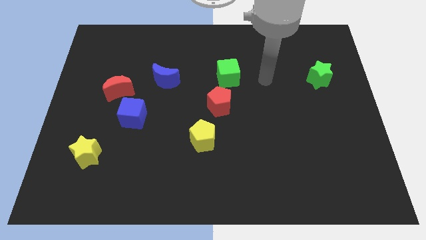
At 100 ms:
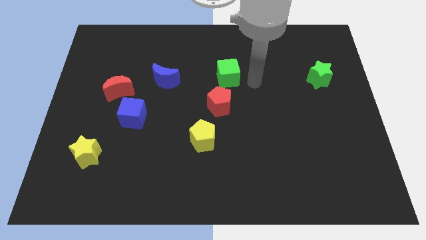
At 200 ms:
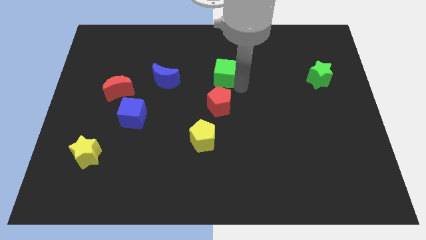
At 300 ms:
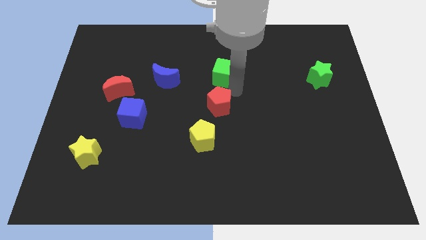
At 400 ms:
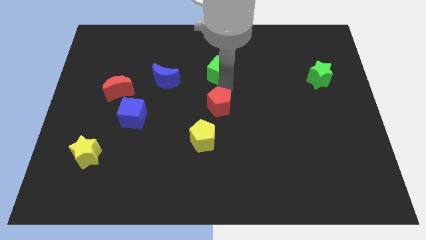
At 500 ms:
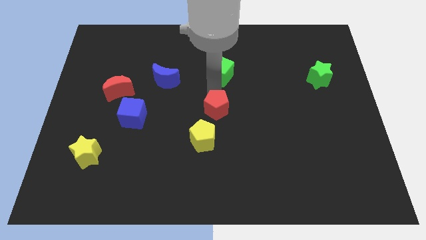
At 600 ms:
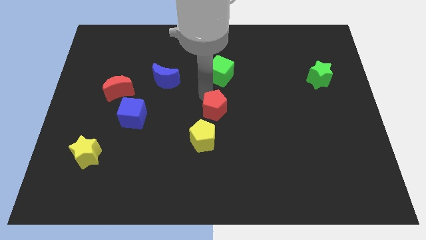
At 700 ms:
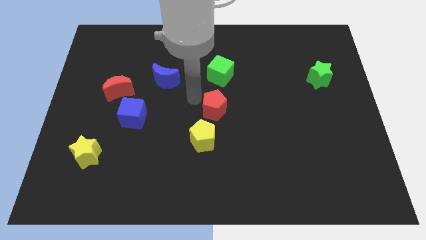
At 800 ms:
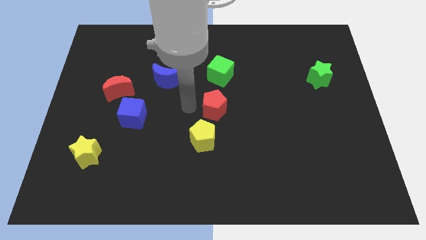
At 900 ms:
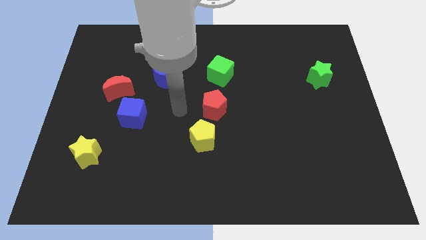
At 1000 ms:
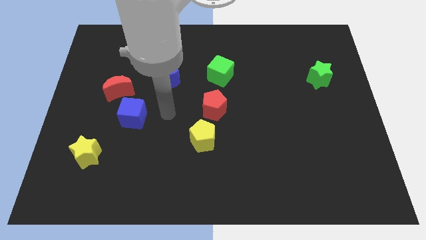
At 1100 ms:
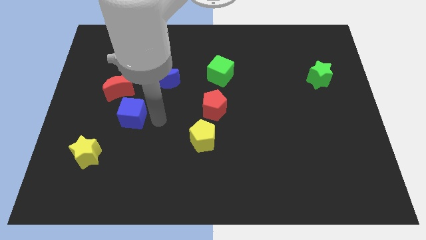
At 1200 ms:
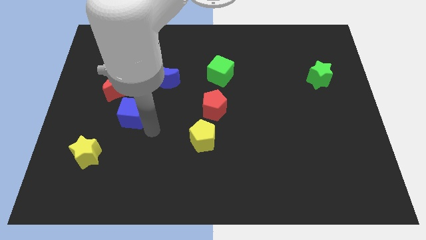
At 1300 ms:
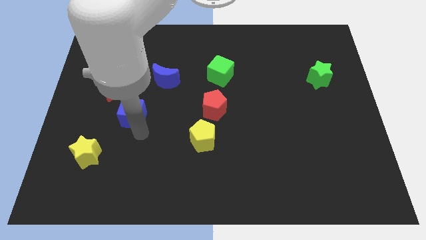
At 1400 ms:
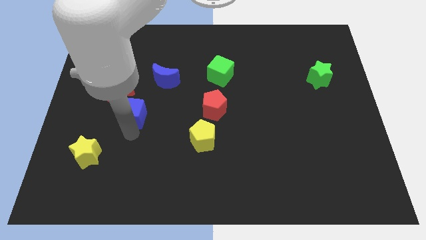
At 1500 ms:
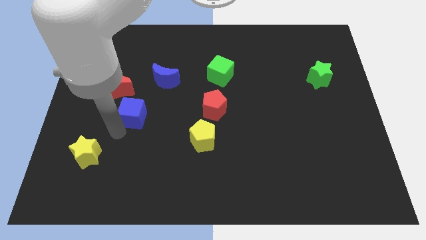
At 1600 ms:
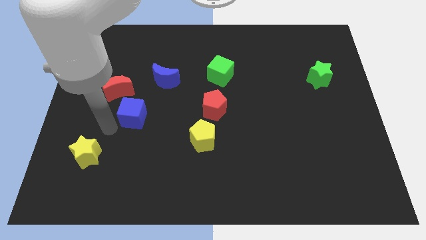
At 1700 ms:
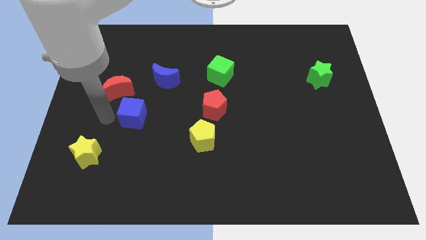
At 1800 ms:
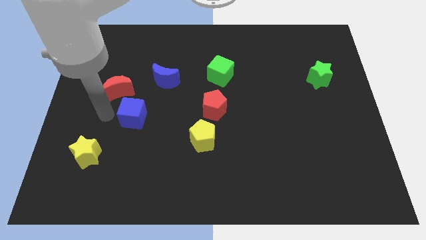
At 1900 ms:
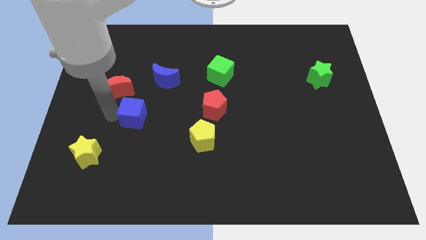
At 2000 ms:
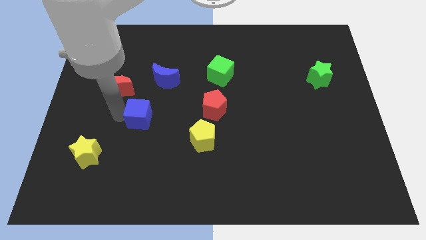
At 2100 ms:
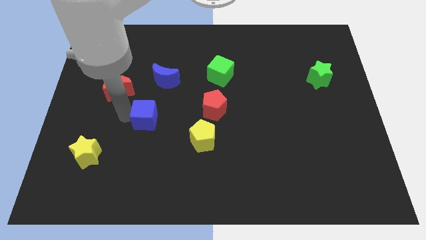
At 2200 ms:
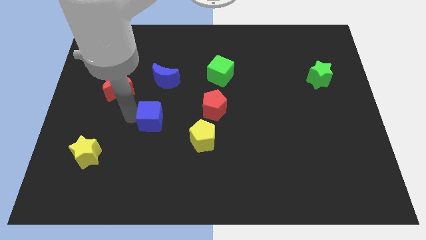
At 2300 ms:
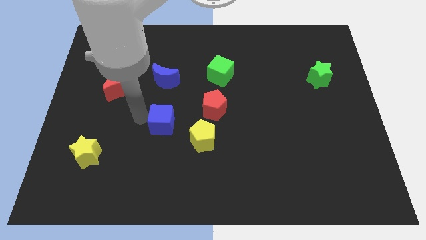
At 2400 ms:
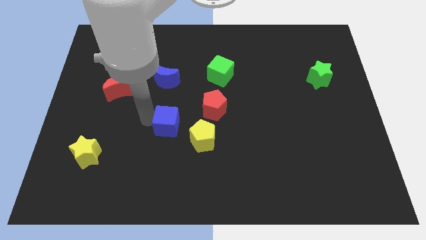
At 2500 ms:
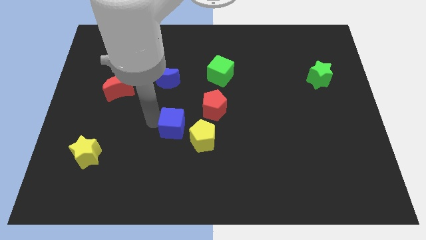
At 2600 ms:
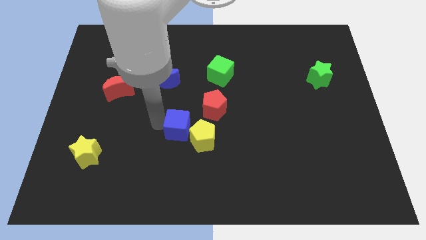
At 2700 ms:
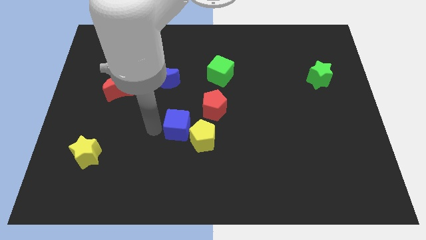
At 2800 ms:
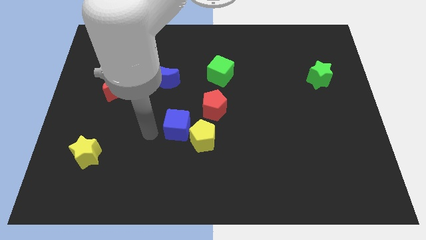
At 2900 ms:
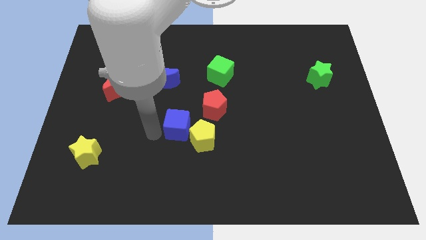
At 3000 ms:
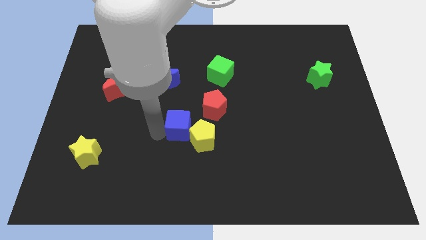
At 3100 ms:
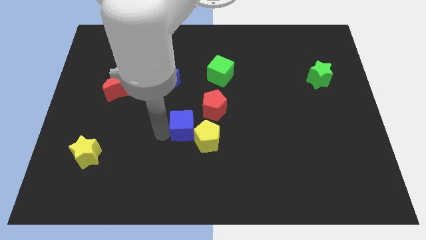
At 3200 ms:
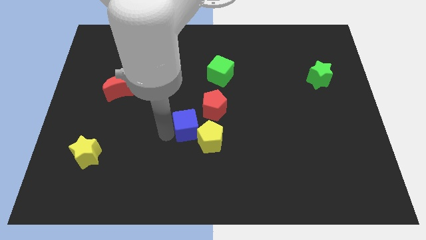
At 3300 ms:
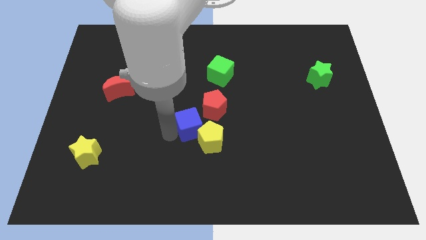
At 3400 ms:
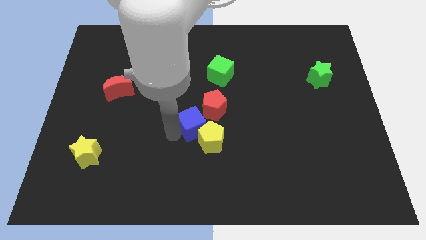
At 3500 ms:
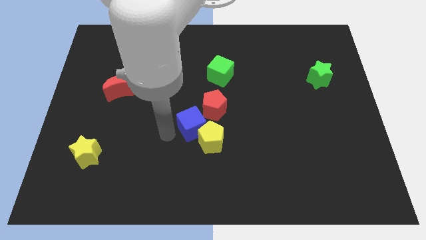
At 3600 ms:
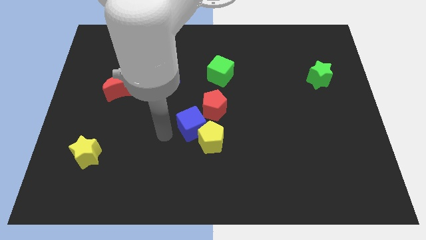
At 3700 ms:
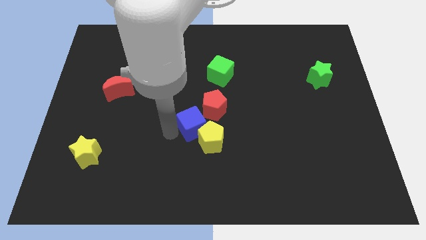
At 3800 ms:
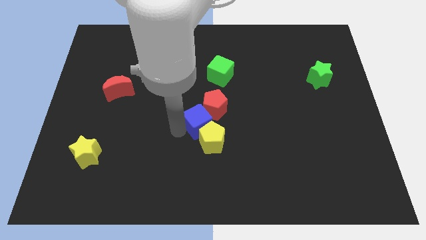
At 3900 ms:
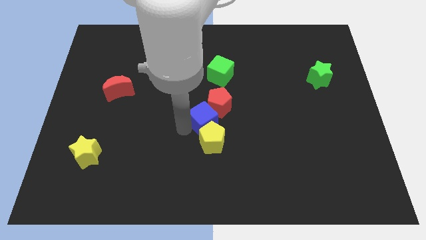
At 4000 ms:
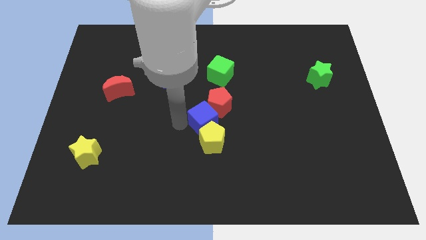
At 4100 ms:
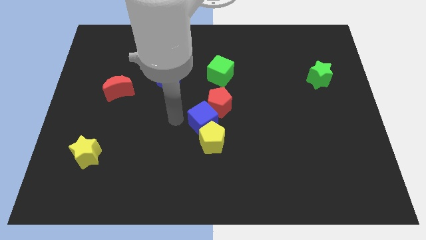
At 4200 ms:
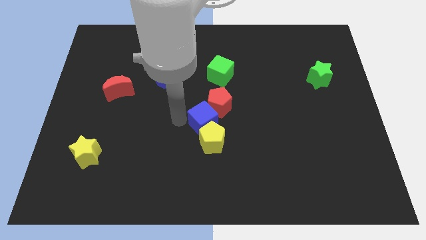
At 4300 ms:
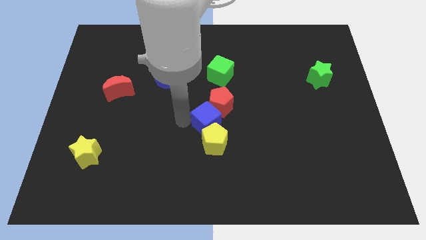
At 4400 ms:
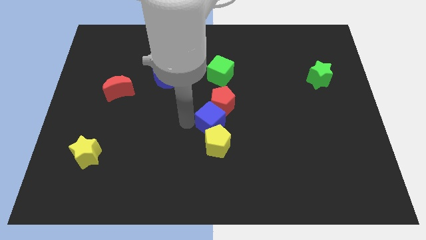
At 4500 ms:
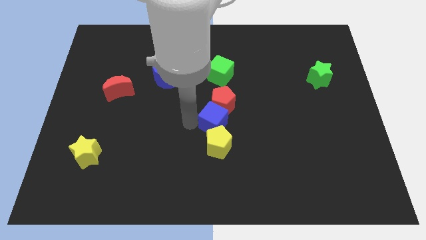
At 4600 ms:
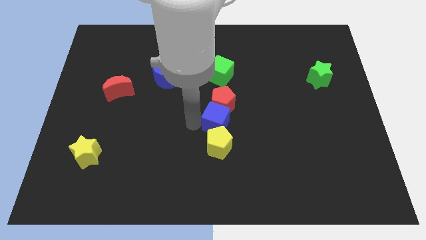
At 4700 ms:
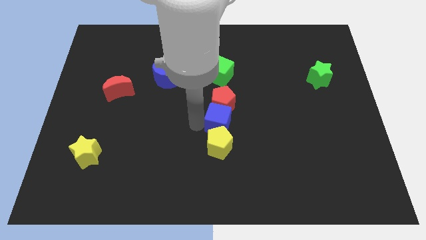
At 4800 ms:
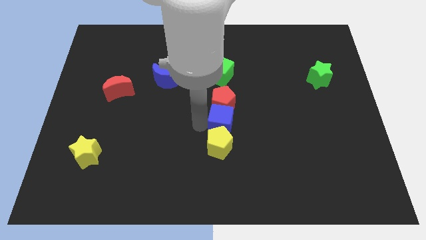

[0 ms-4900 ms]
move the blue cube right

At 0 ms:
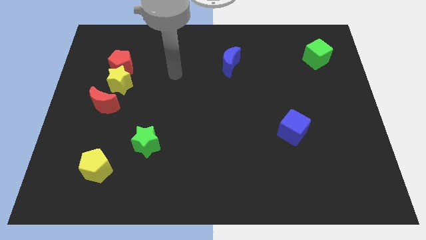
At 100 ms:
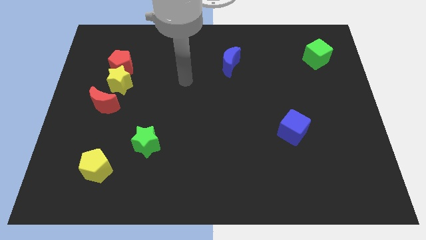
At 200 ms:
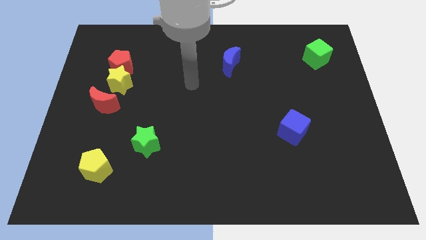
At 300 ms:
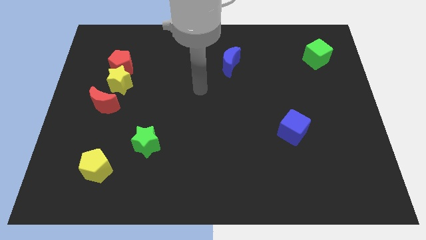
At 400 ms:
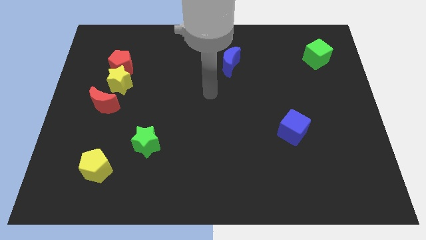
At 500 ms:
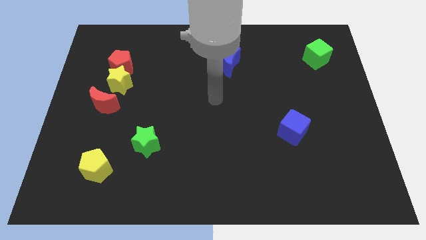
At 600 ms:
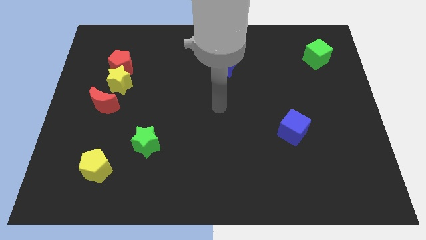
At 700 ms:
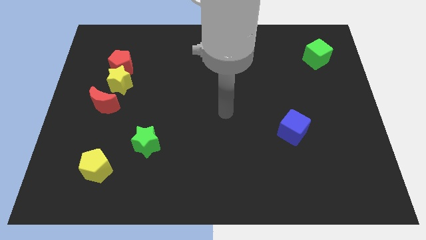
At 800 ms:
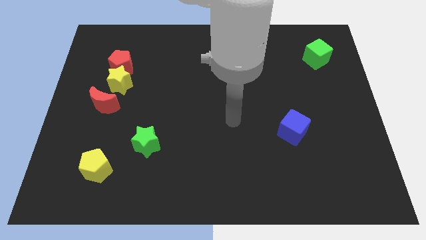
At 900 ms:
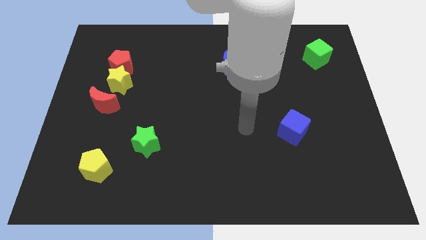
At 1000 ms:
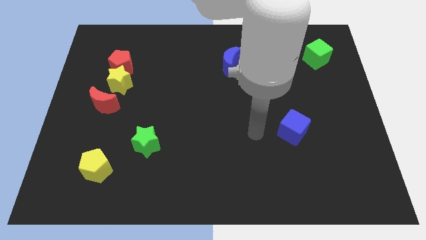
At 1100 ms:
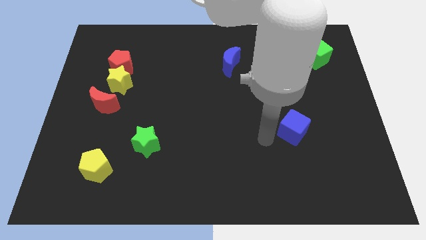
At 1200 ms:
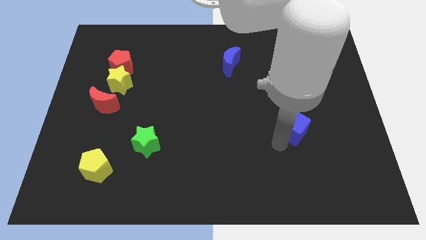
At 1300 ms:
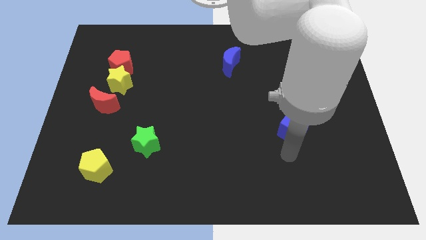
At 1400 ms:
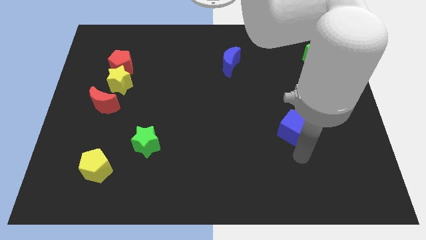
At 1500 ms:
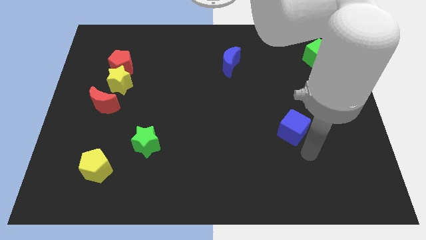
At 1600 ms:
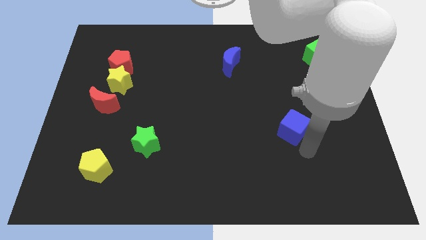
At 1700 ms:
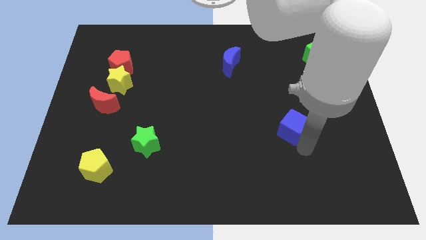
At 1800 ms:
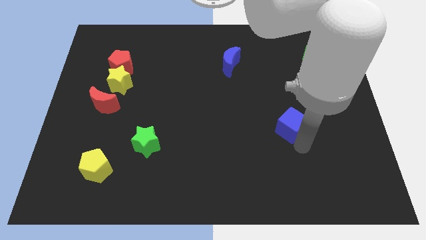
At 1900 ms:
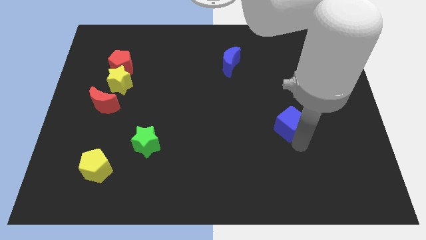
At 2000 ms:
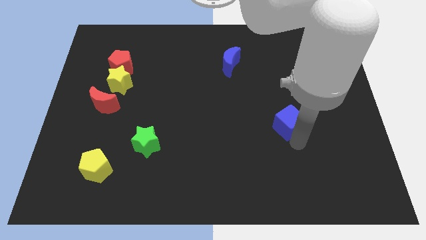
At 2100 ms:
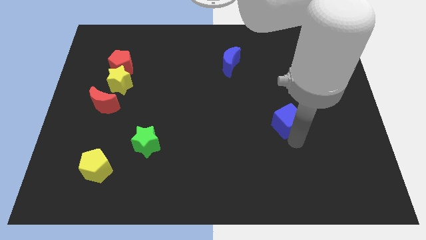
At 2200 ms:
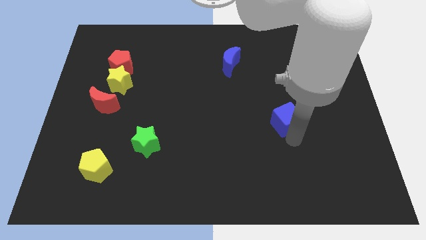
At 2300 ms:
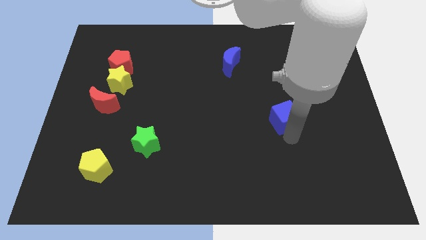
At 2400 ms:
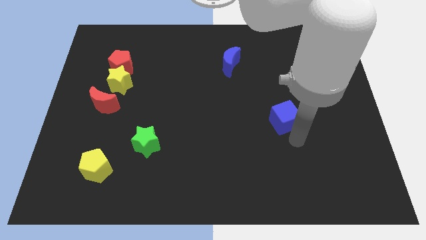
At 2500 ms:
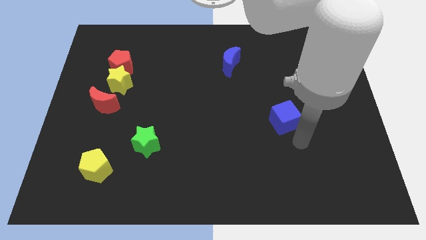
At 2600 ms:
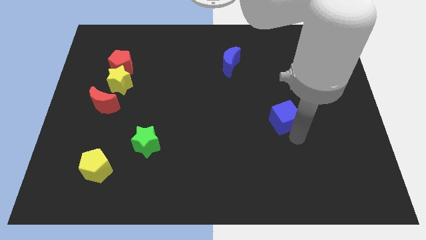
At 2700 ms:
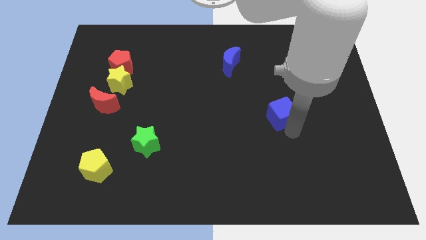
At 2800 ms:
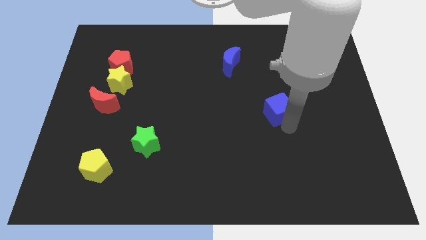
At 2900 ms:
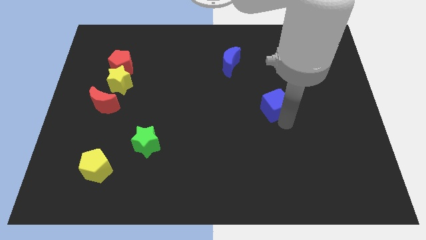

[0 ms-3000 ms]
slide the blue cube a bit upwards and left diagonally

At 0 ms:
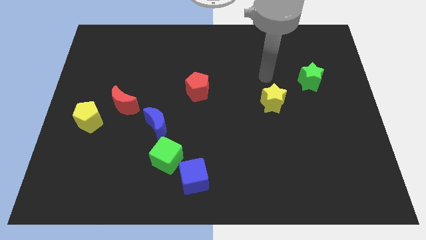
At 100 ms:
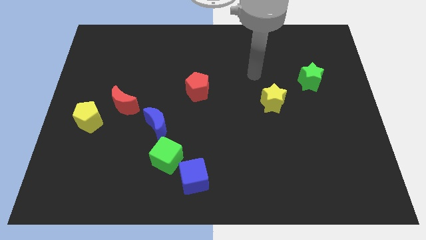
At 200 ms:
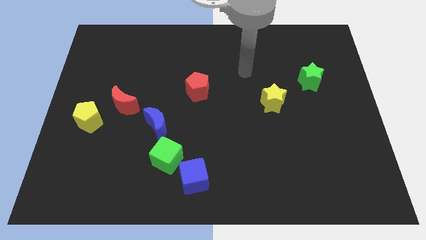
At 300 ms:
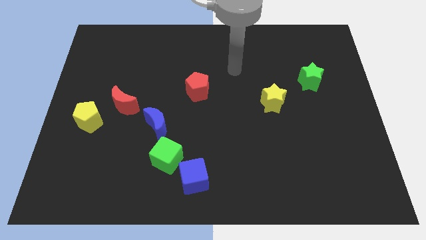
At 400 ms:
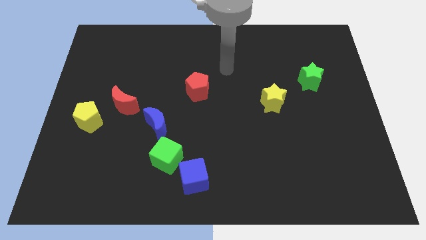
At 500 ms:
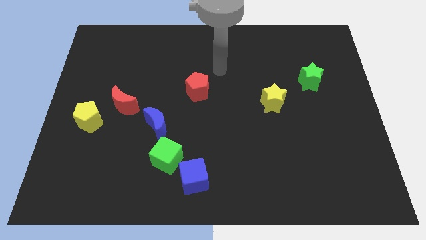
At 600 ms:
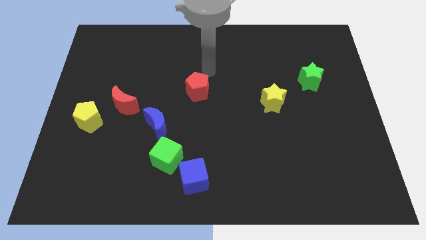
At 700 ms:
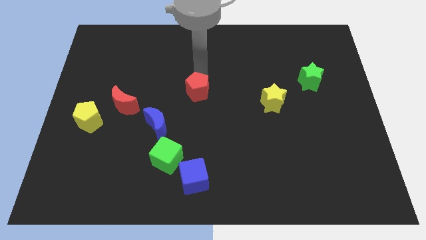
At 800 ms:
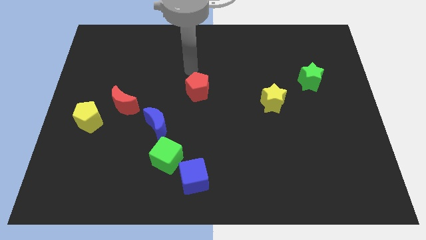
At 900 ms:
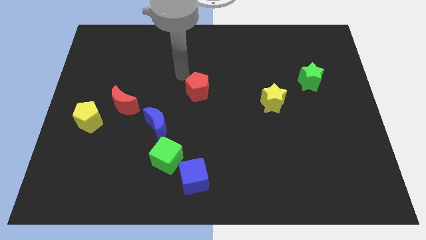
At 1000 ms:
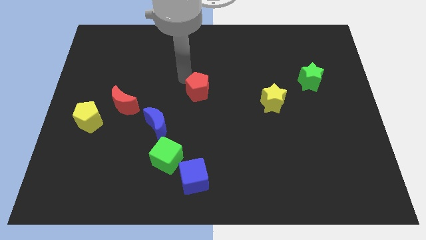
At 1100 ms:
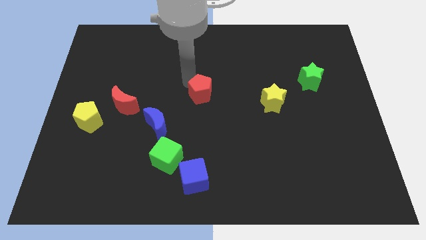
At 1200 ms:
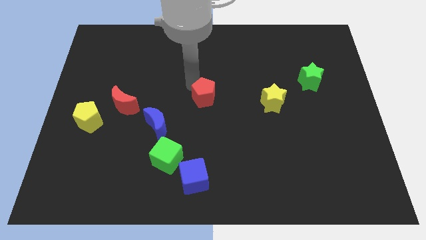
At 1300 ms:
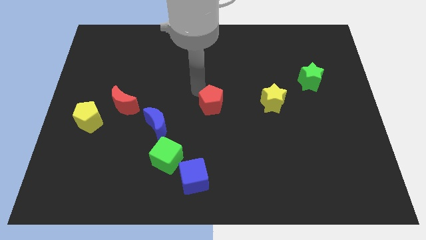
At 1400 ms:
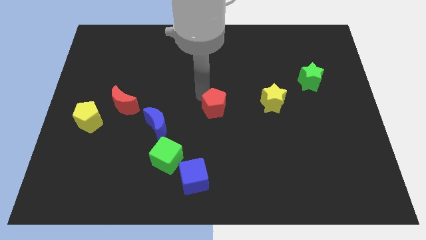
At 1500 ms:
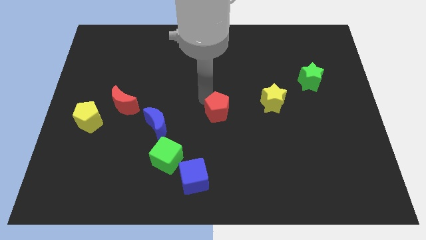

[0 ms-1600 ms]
push the red pentagon a little bit downwards and then right
